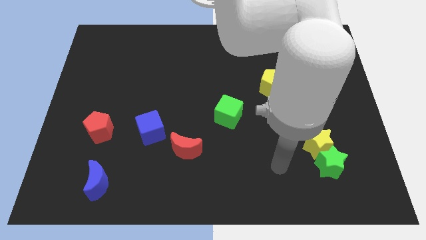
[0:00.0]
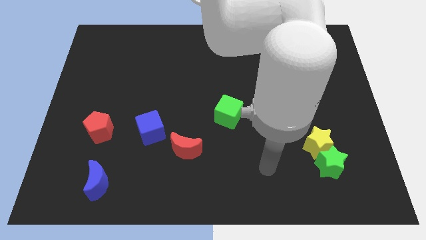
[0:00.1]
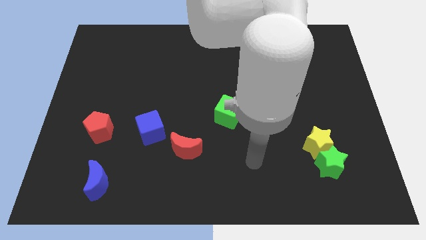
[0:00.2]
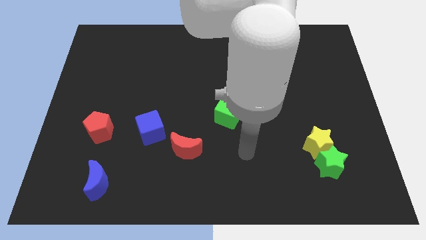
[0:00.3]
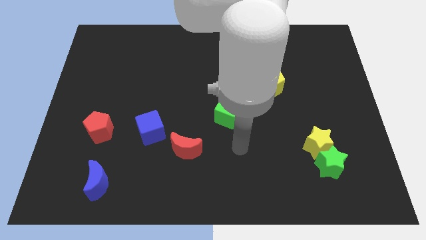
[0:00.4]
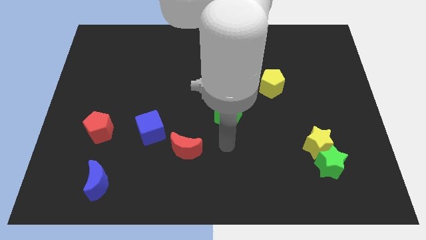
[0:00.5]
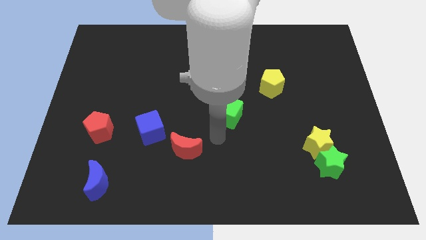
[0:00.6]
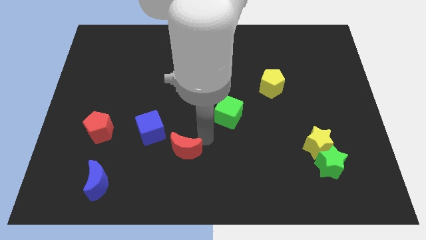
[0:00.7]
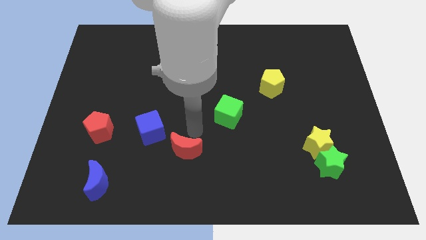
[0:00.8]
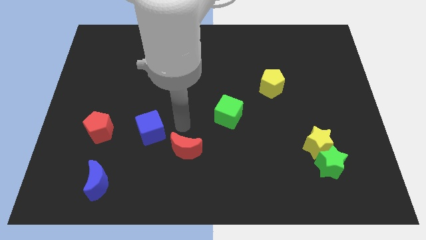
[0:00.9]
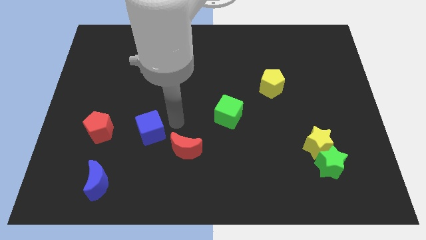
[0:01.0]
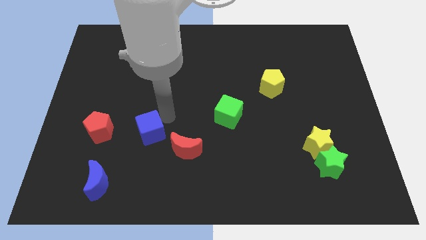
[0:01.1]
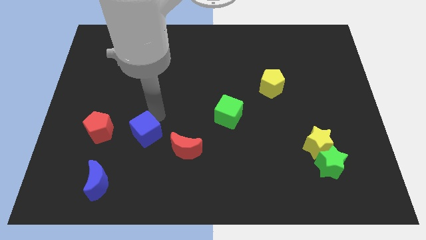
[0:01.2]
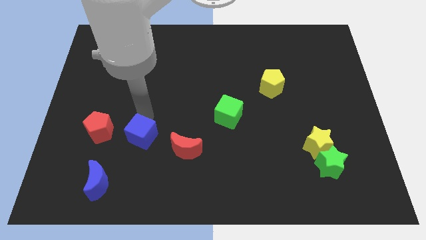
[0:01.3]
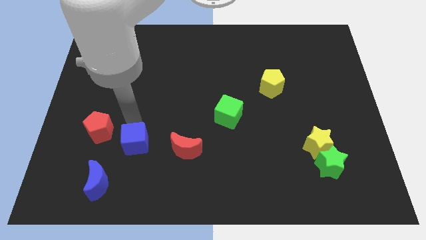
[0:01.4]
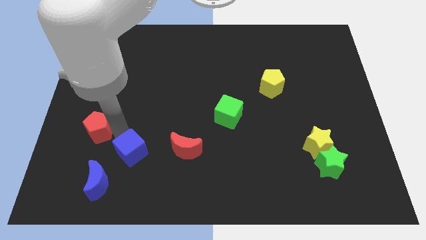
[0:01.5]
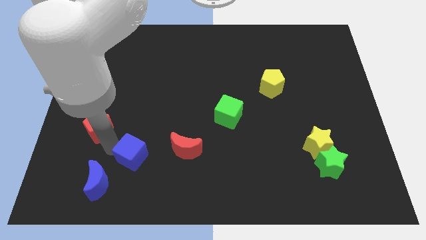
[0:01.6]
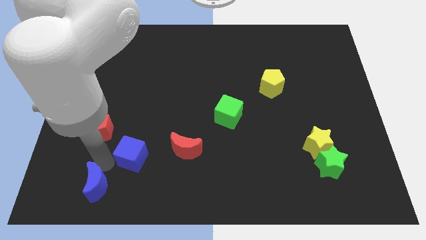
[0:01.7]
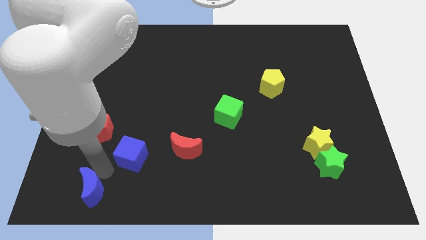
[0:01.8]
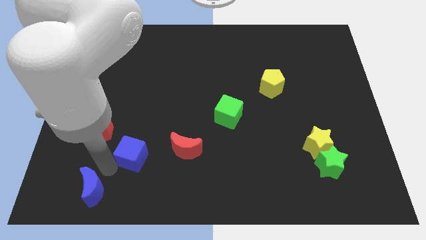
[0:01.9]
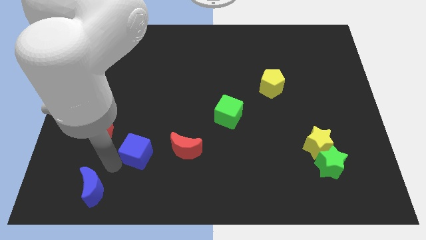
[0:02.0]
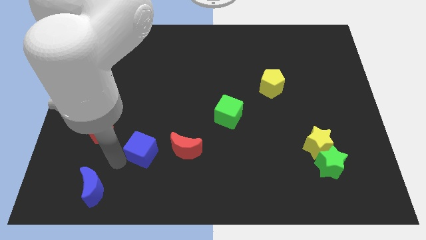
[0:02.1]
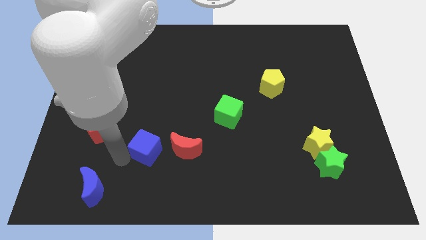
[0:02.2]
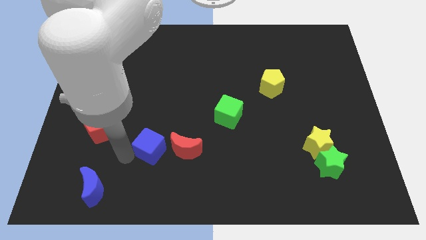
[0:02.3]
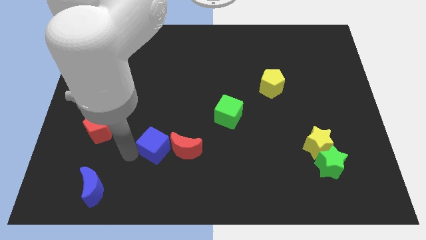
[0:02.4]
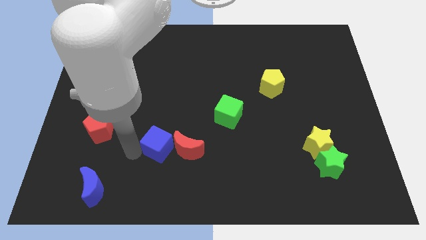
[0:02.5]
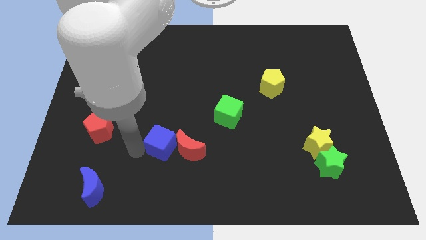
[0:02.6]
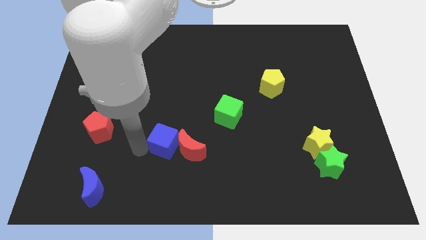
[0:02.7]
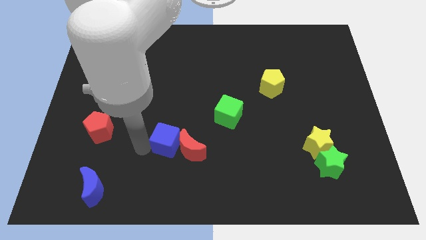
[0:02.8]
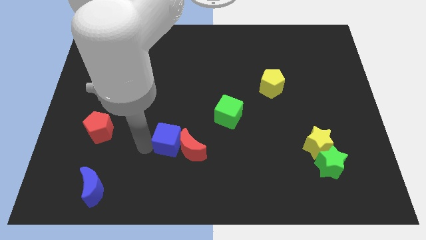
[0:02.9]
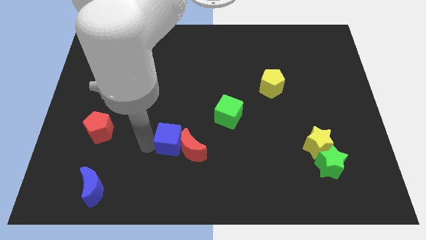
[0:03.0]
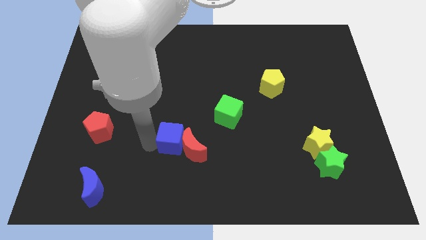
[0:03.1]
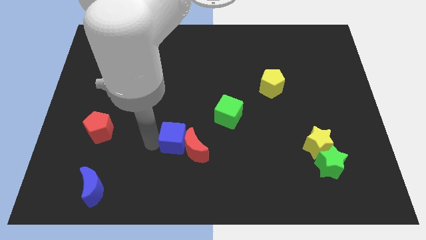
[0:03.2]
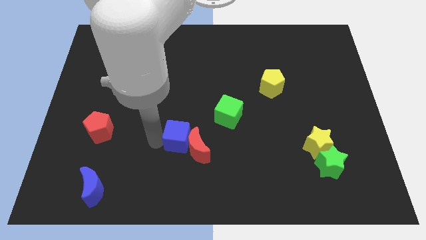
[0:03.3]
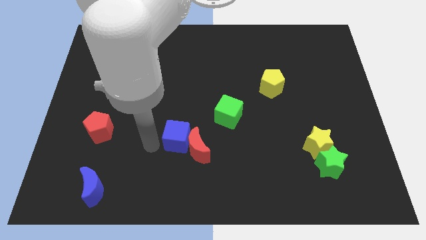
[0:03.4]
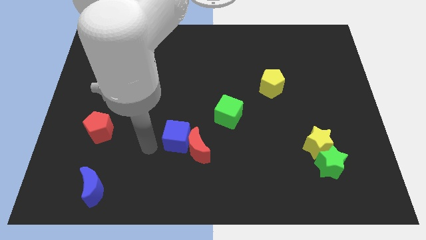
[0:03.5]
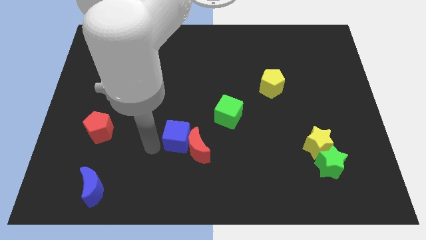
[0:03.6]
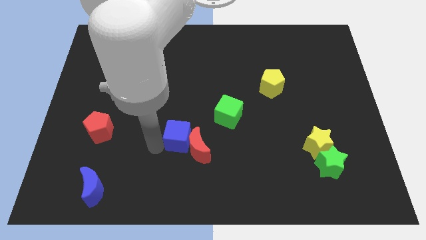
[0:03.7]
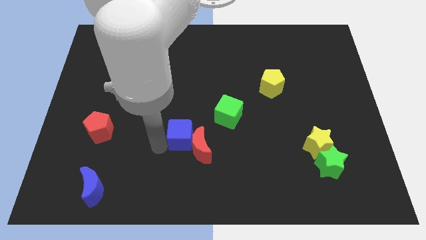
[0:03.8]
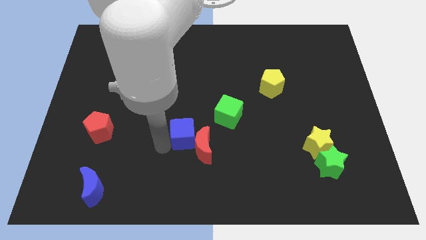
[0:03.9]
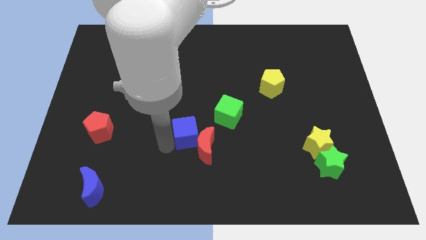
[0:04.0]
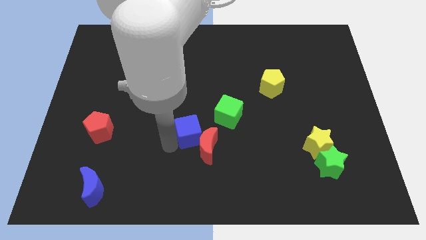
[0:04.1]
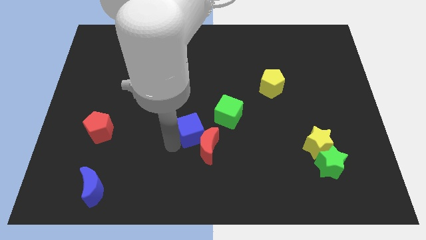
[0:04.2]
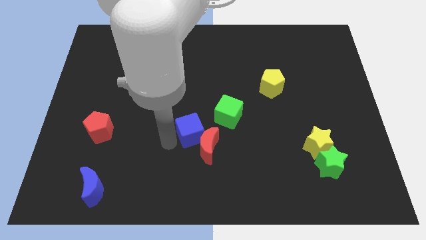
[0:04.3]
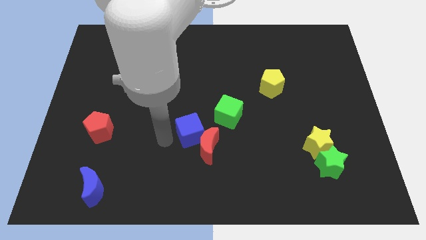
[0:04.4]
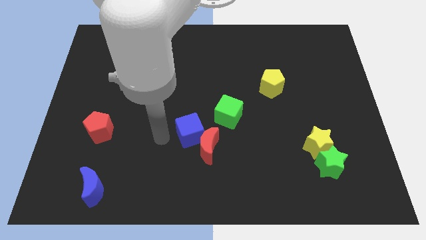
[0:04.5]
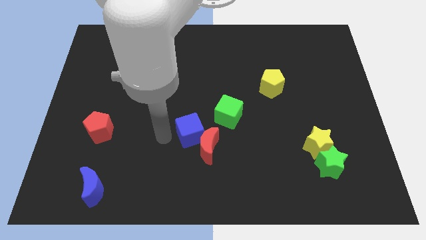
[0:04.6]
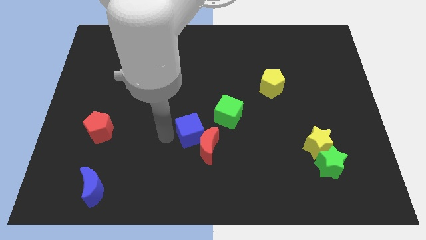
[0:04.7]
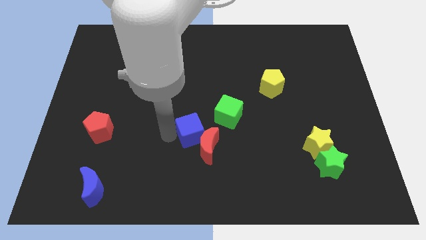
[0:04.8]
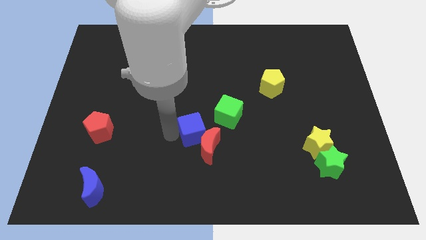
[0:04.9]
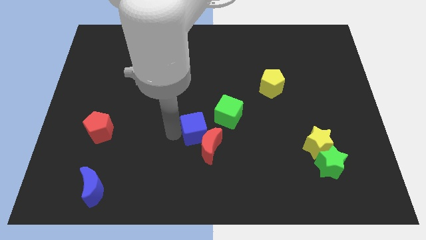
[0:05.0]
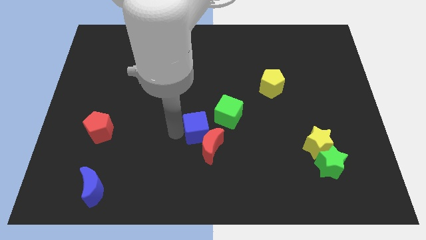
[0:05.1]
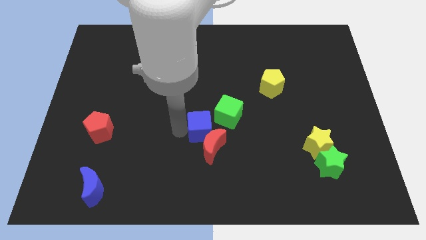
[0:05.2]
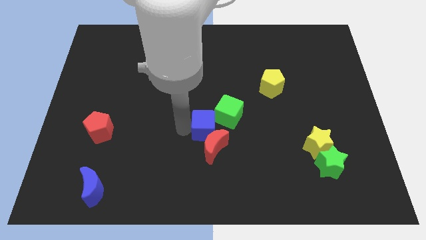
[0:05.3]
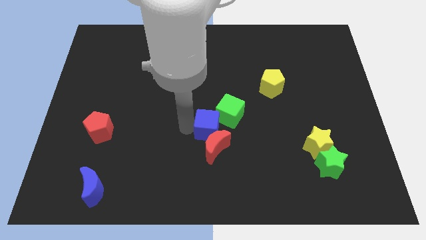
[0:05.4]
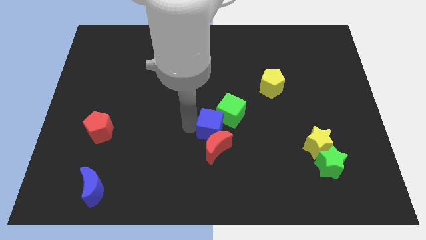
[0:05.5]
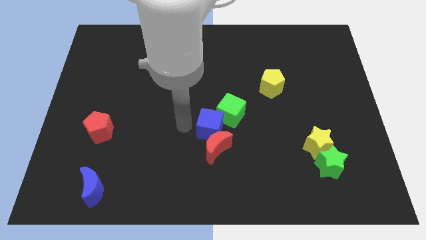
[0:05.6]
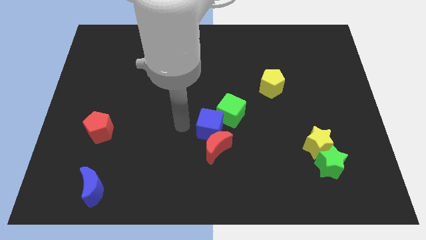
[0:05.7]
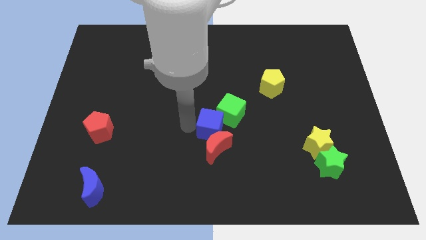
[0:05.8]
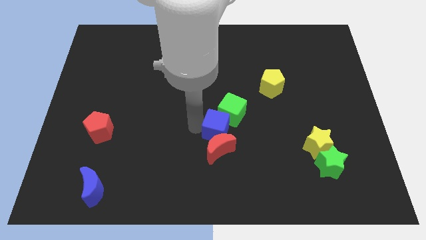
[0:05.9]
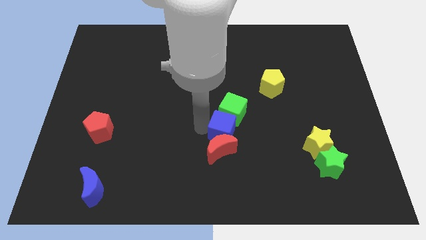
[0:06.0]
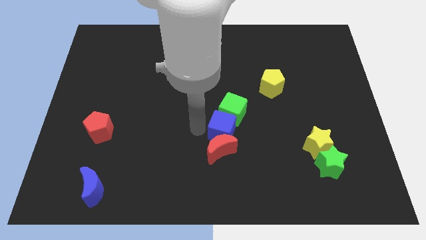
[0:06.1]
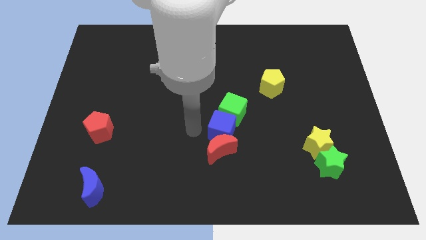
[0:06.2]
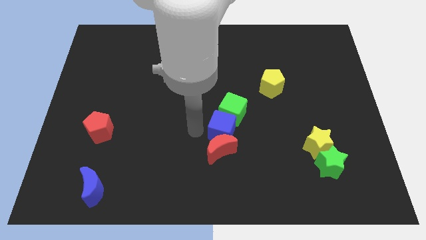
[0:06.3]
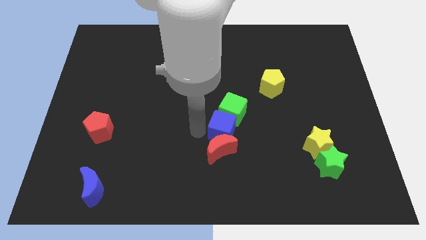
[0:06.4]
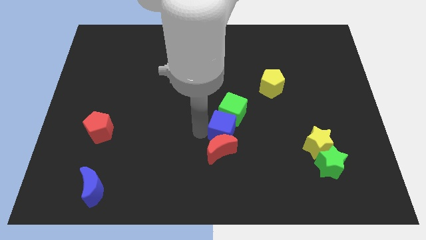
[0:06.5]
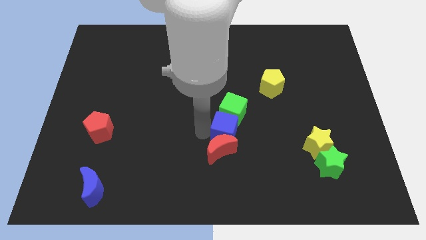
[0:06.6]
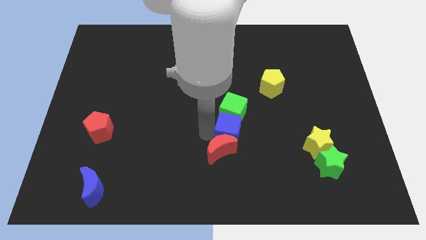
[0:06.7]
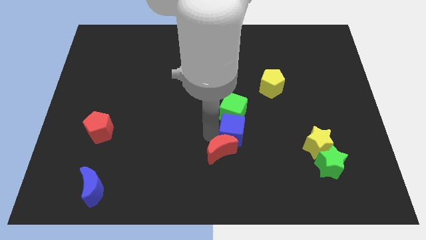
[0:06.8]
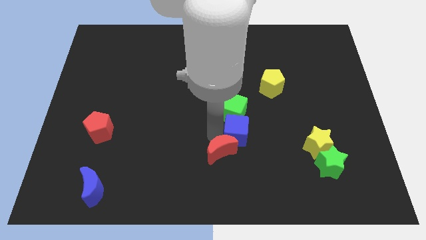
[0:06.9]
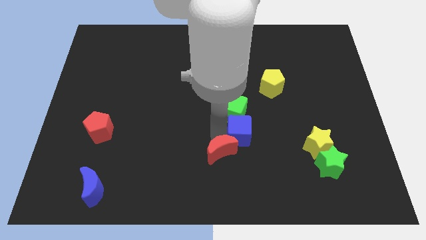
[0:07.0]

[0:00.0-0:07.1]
slide the blue cube right

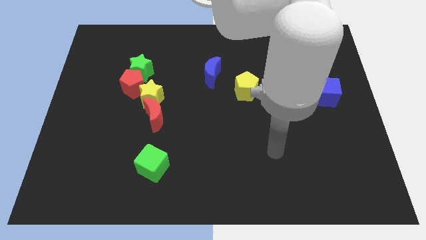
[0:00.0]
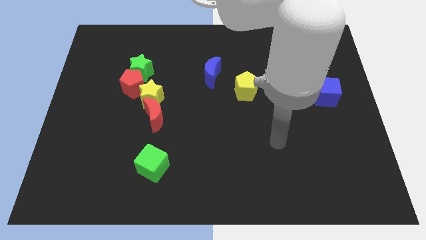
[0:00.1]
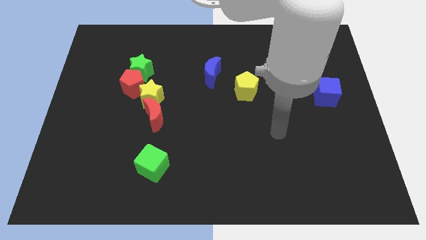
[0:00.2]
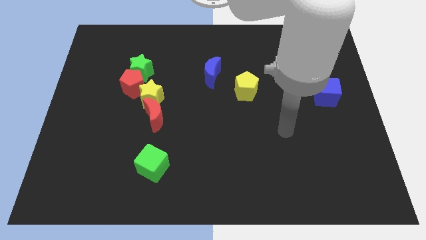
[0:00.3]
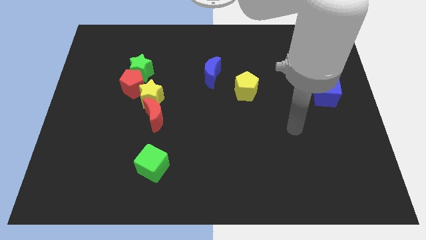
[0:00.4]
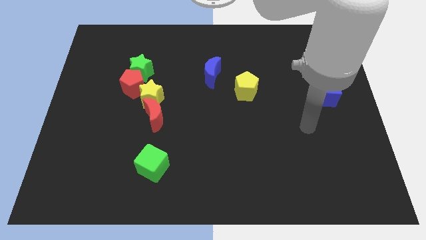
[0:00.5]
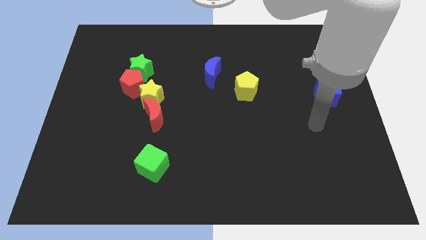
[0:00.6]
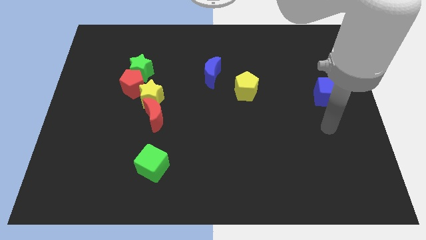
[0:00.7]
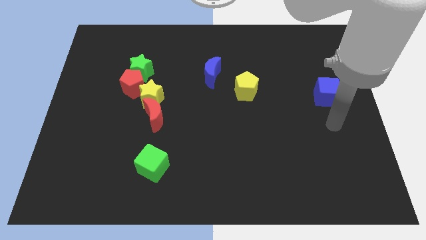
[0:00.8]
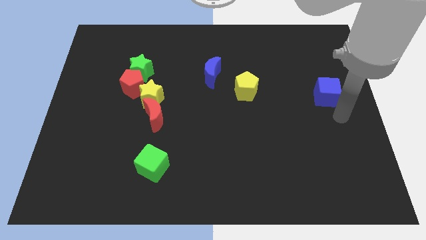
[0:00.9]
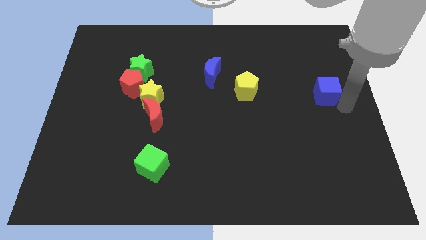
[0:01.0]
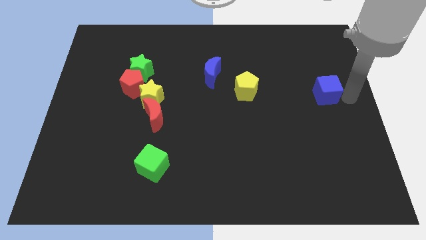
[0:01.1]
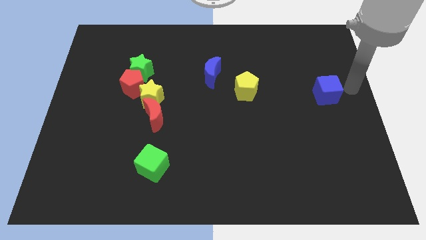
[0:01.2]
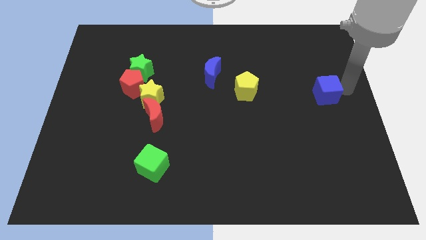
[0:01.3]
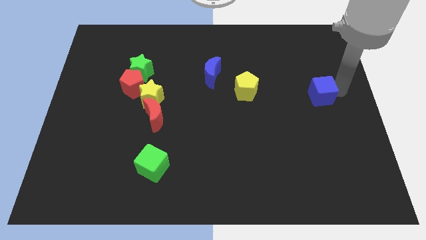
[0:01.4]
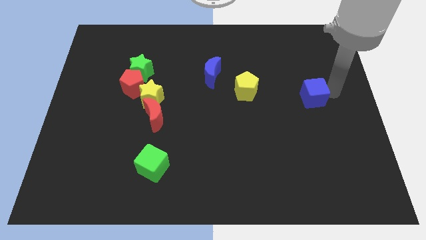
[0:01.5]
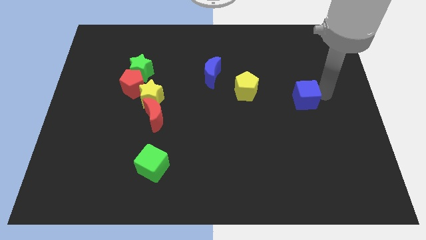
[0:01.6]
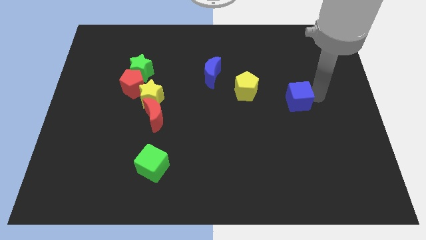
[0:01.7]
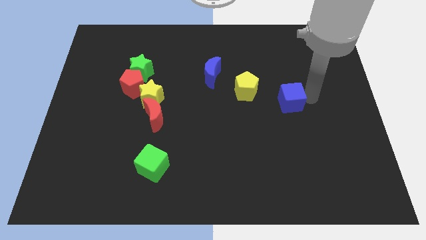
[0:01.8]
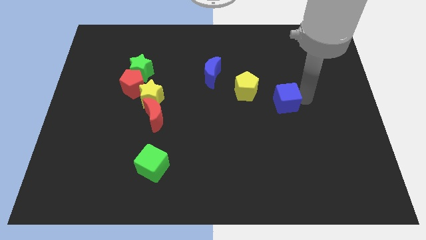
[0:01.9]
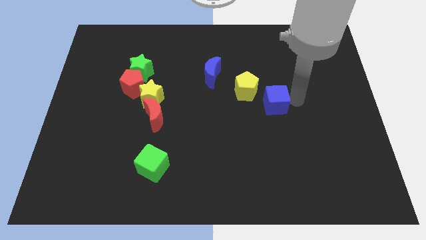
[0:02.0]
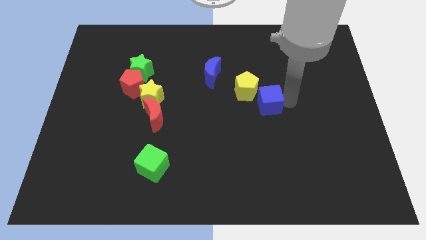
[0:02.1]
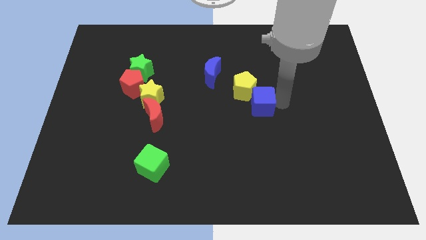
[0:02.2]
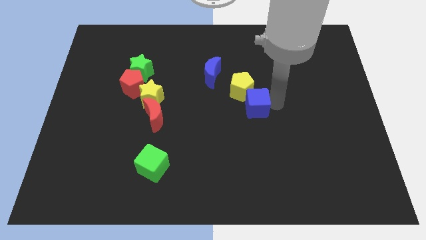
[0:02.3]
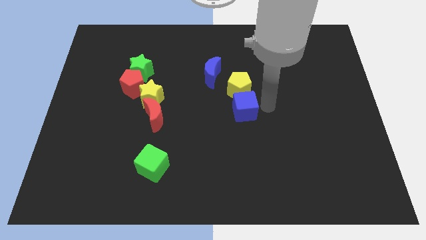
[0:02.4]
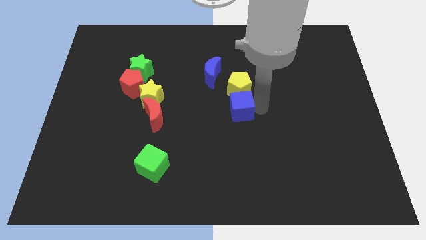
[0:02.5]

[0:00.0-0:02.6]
slide the blue cube to the left
